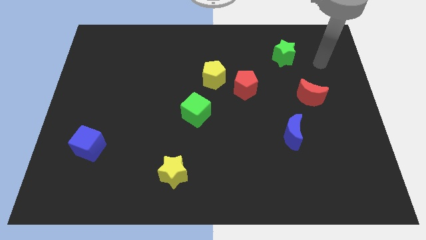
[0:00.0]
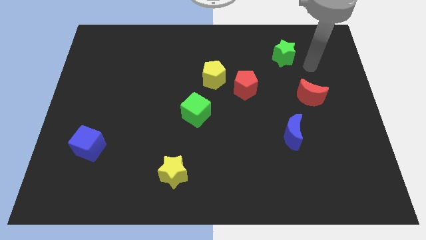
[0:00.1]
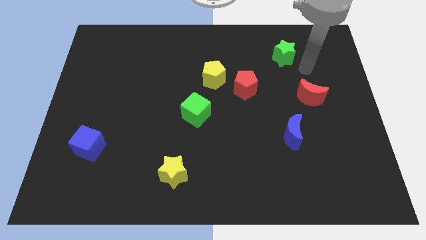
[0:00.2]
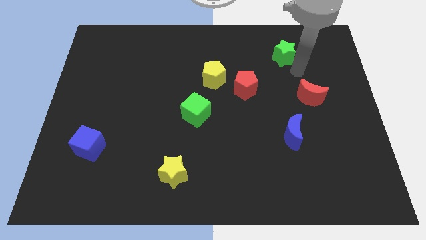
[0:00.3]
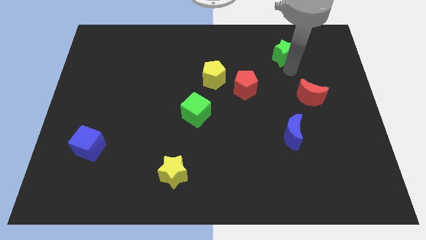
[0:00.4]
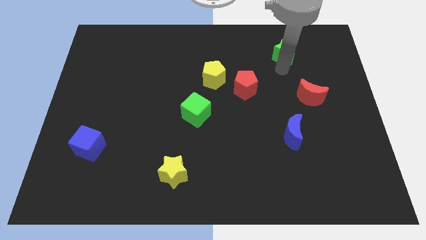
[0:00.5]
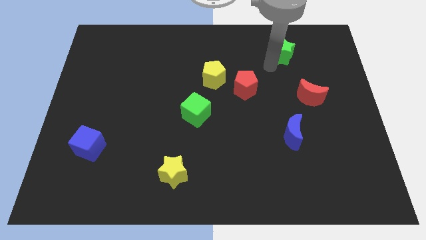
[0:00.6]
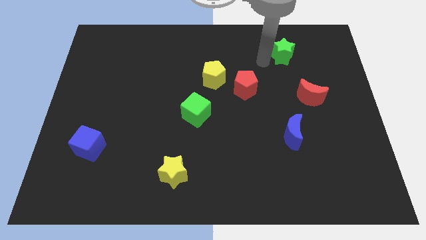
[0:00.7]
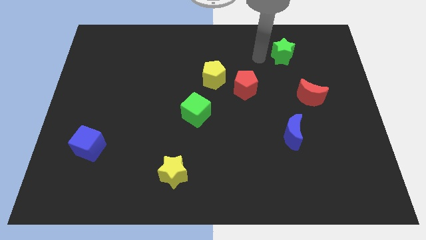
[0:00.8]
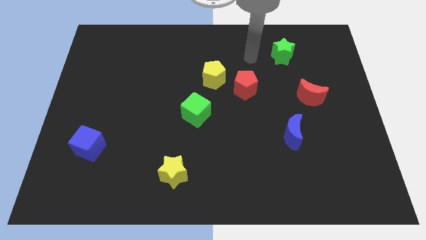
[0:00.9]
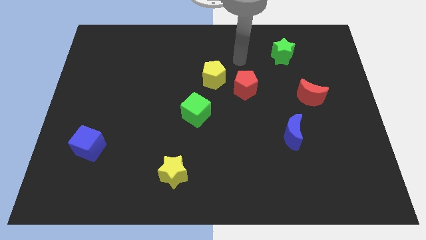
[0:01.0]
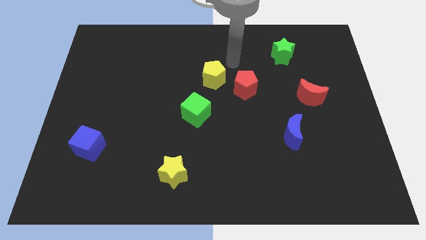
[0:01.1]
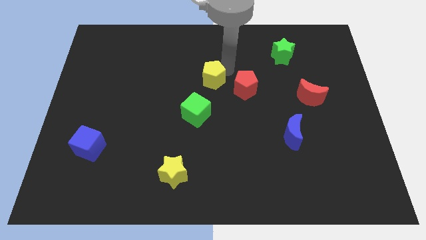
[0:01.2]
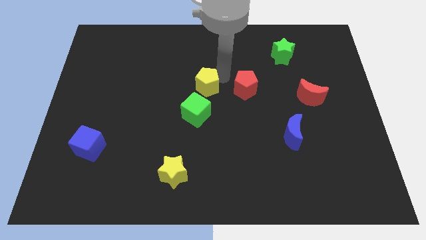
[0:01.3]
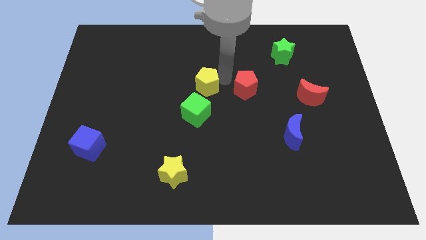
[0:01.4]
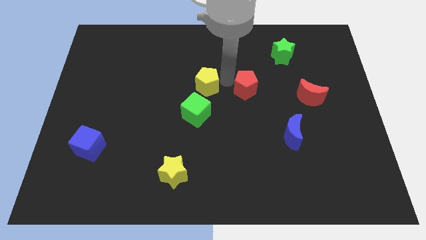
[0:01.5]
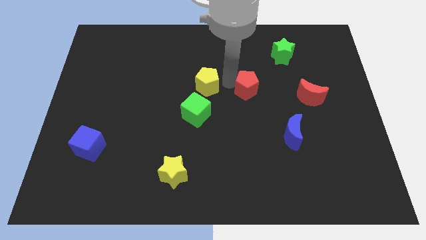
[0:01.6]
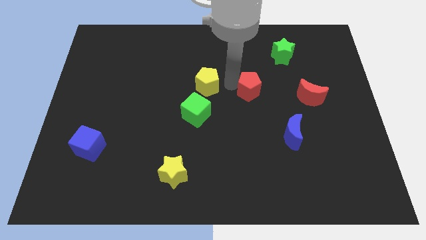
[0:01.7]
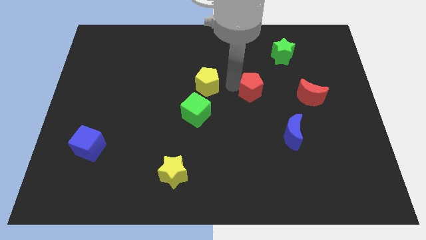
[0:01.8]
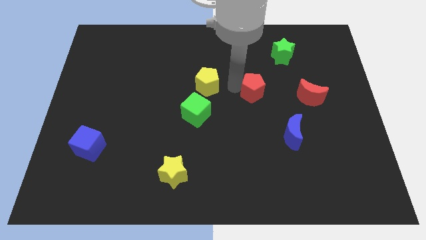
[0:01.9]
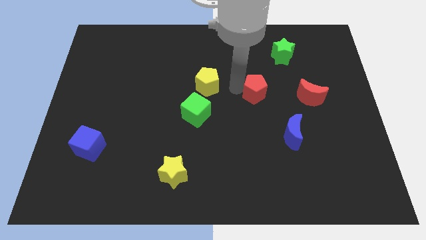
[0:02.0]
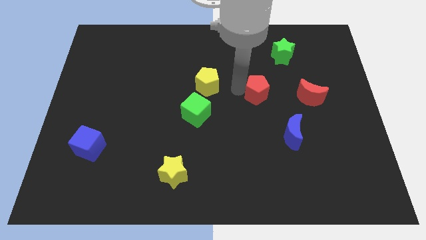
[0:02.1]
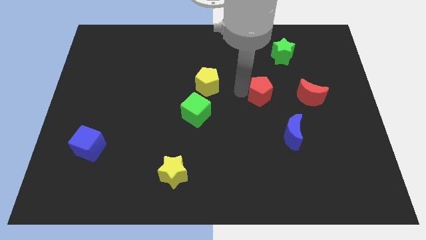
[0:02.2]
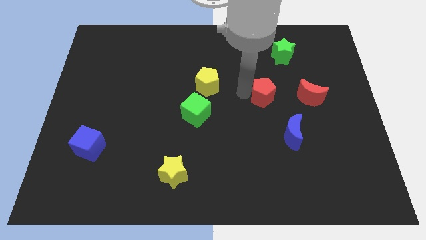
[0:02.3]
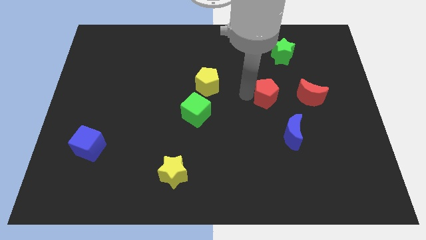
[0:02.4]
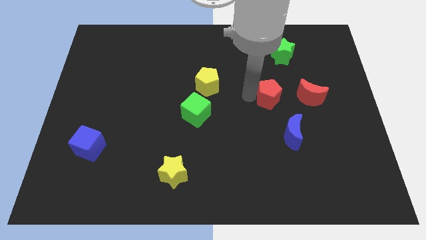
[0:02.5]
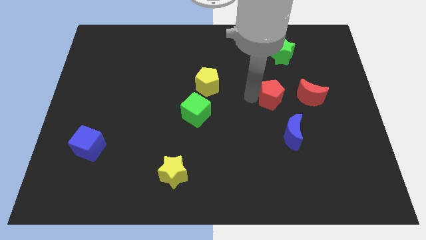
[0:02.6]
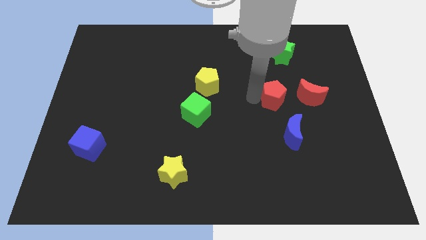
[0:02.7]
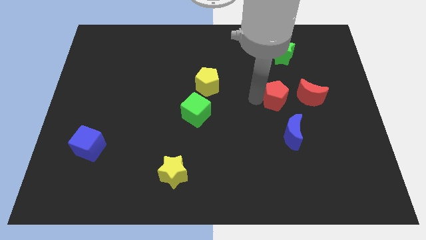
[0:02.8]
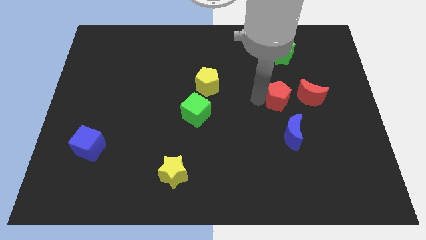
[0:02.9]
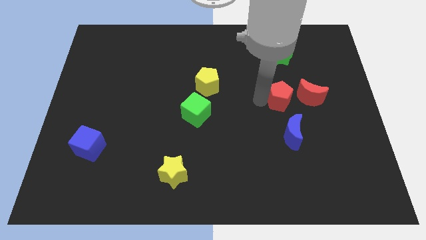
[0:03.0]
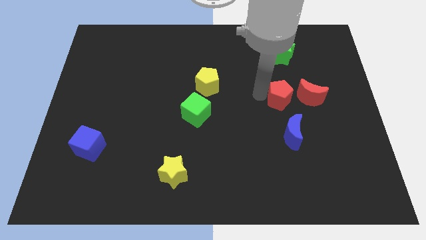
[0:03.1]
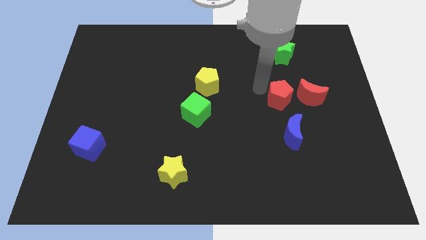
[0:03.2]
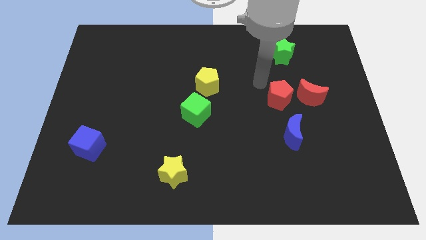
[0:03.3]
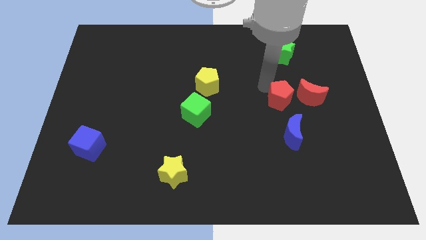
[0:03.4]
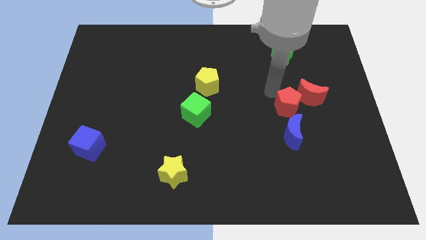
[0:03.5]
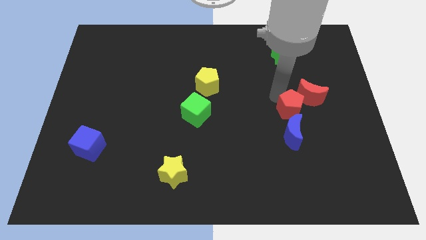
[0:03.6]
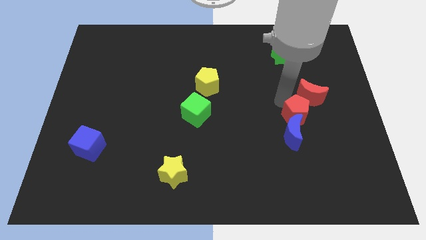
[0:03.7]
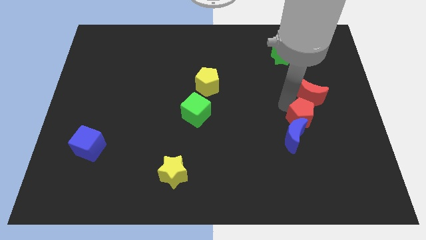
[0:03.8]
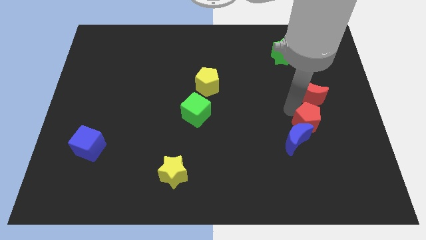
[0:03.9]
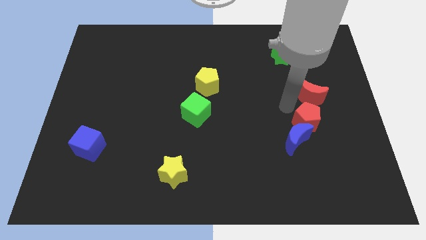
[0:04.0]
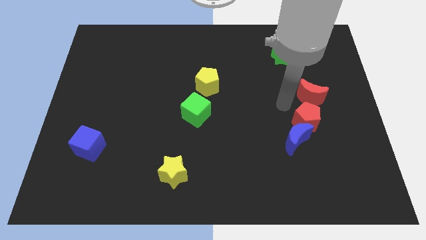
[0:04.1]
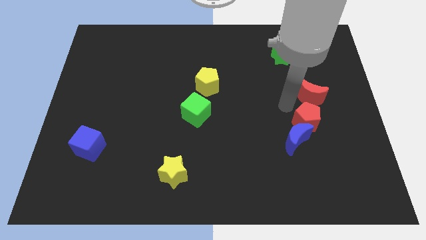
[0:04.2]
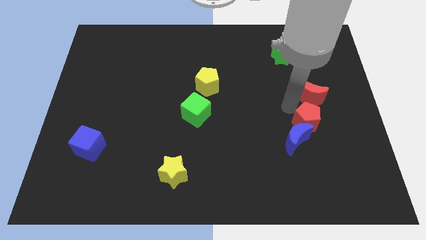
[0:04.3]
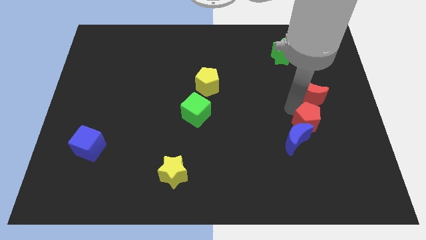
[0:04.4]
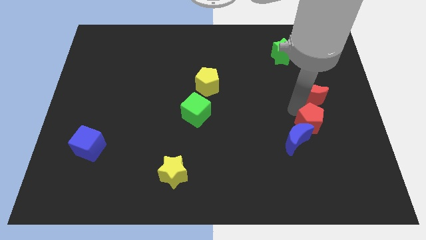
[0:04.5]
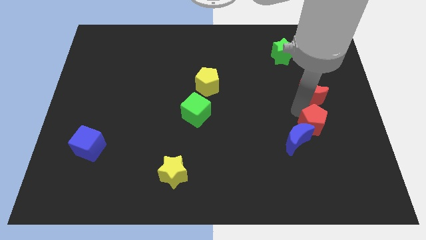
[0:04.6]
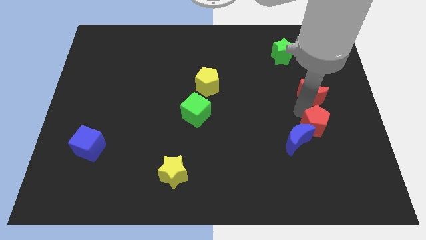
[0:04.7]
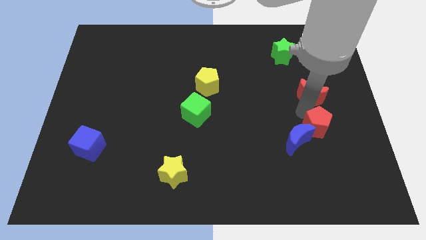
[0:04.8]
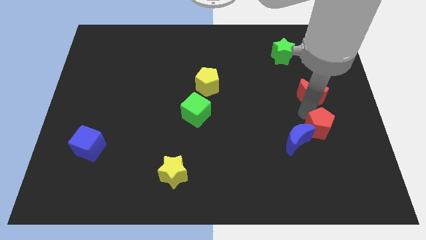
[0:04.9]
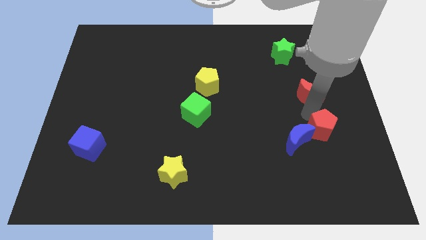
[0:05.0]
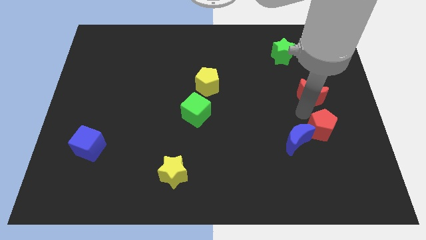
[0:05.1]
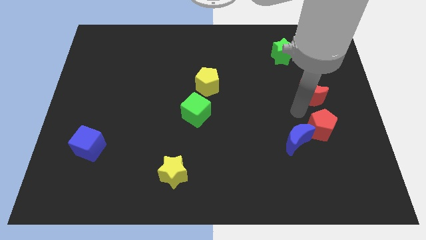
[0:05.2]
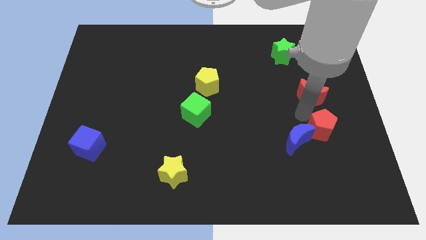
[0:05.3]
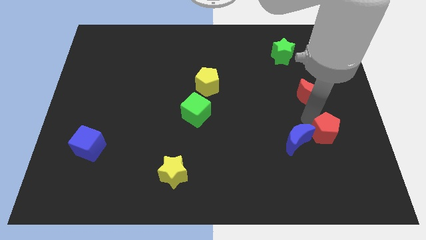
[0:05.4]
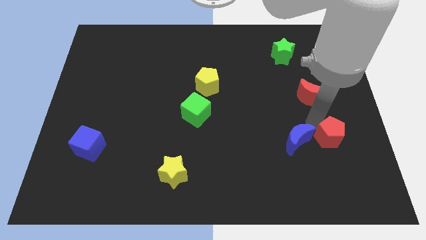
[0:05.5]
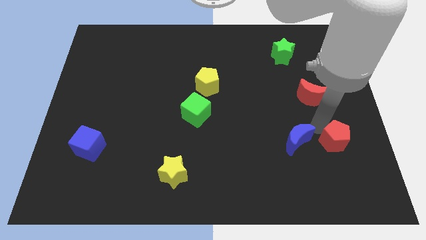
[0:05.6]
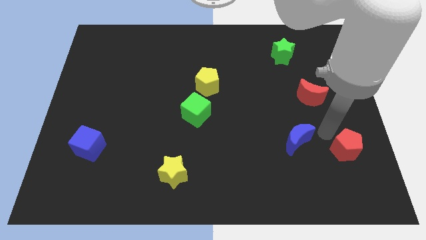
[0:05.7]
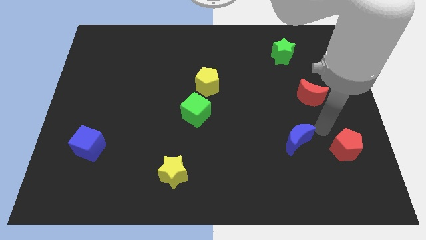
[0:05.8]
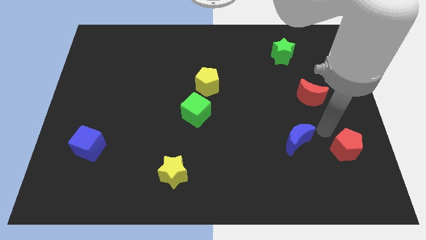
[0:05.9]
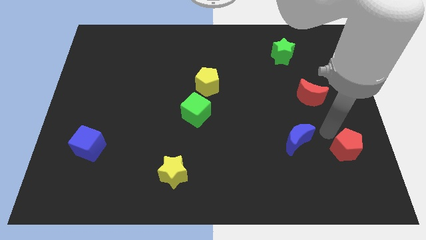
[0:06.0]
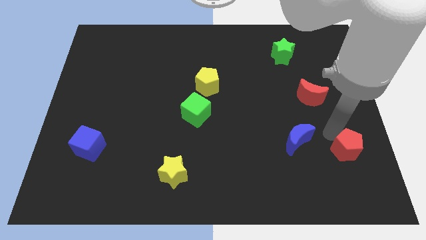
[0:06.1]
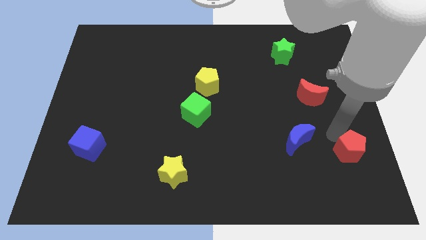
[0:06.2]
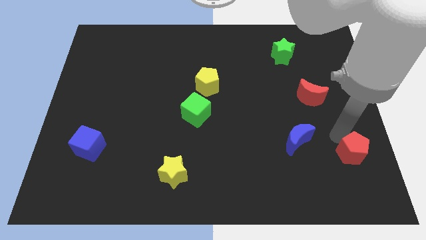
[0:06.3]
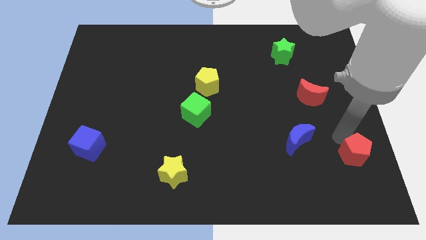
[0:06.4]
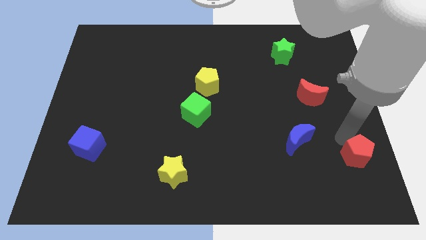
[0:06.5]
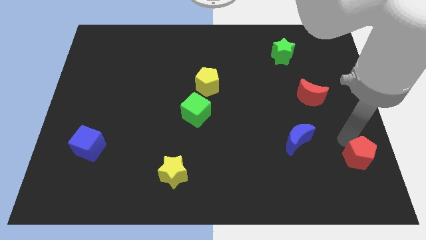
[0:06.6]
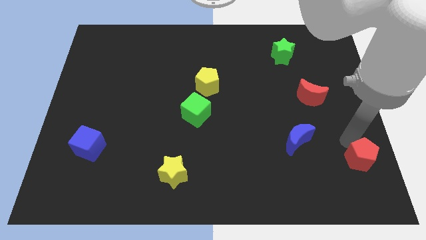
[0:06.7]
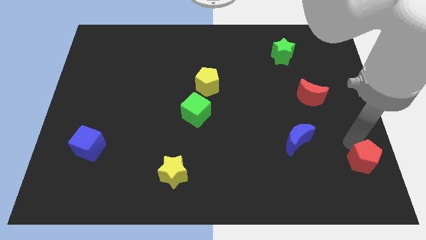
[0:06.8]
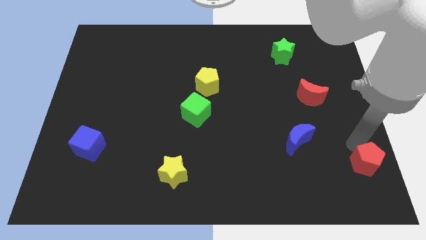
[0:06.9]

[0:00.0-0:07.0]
put the red pentagon to the bottom right

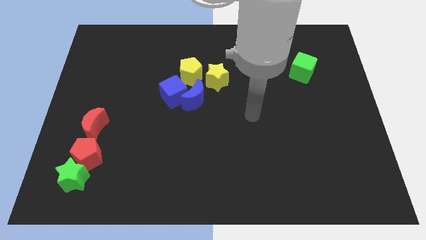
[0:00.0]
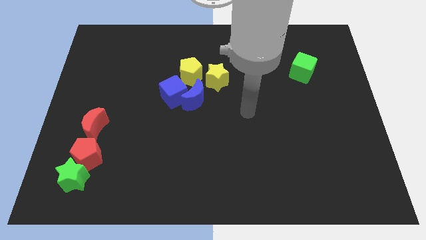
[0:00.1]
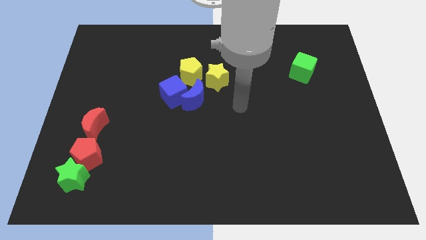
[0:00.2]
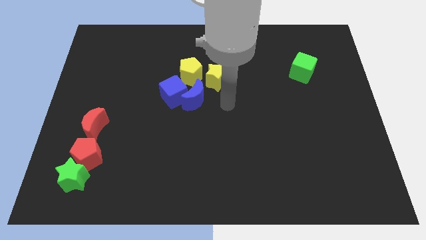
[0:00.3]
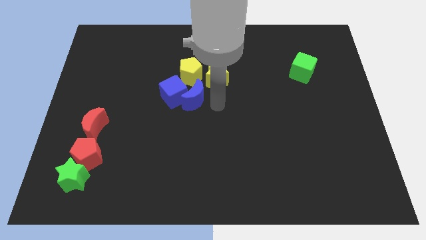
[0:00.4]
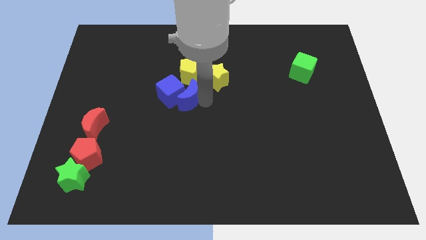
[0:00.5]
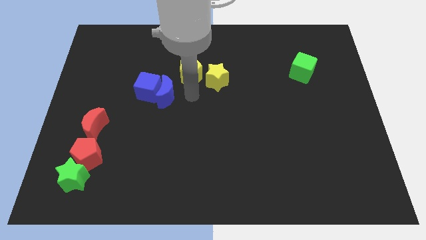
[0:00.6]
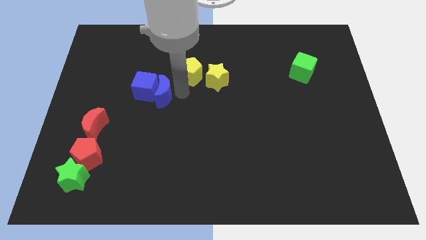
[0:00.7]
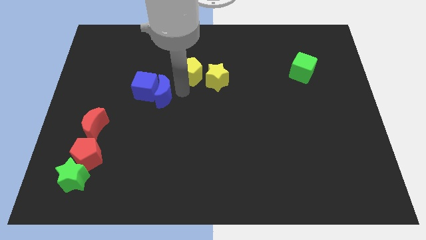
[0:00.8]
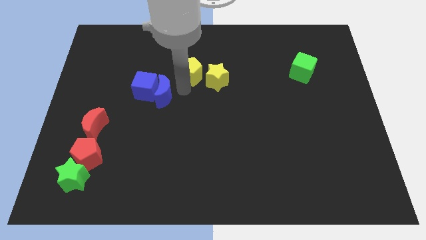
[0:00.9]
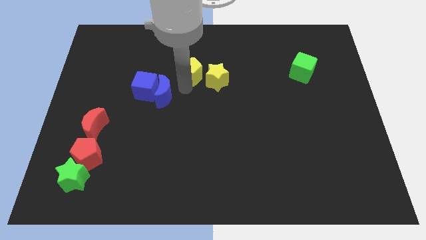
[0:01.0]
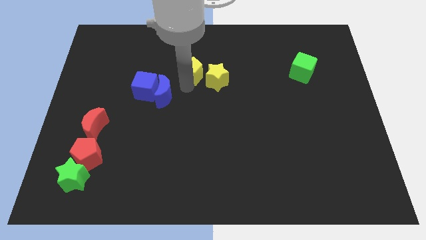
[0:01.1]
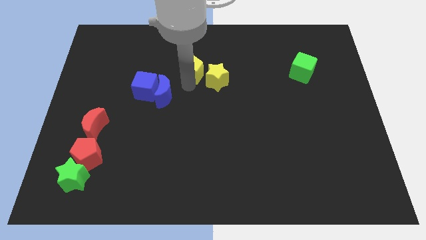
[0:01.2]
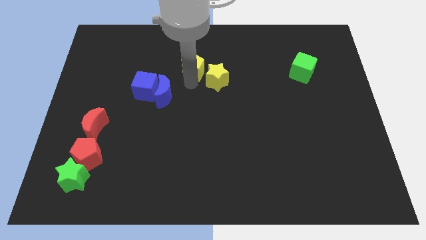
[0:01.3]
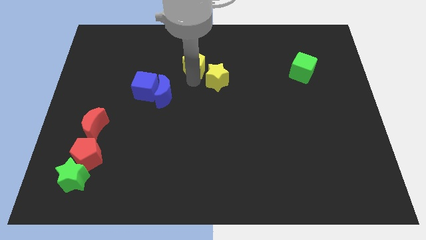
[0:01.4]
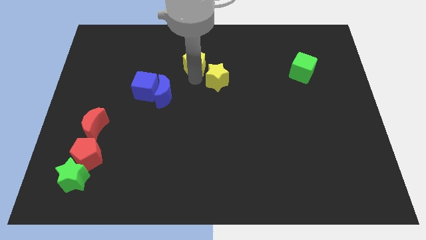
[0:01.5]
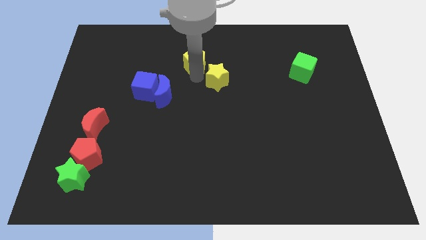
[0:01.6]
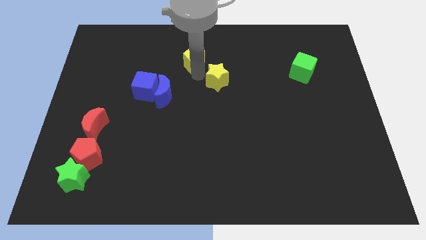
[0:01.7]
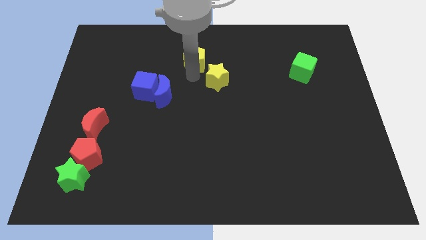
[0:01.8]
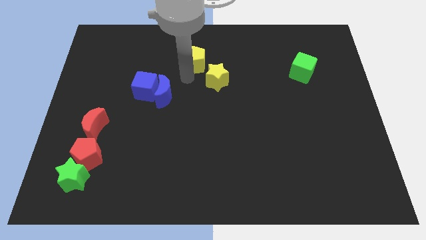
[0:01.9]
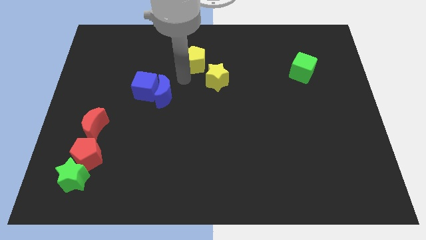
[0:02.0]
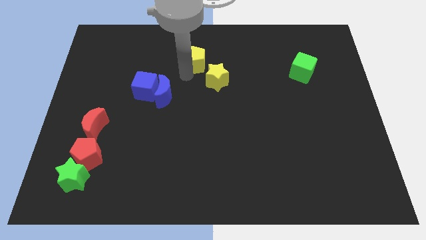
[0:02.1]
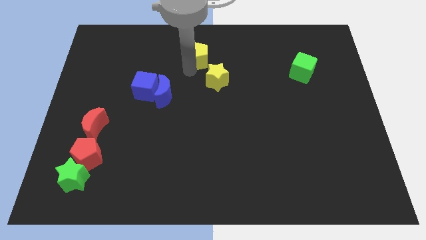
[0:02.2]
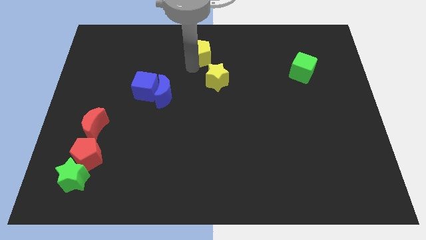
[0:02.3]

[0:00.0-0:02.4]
move the yellow pentagon to the towards your base
